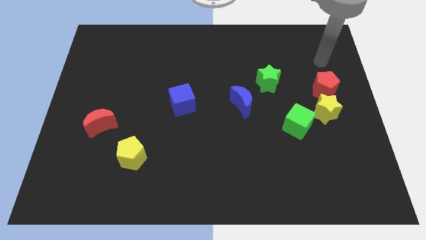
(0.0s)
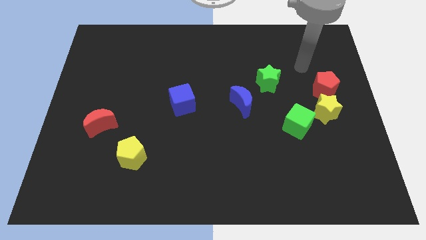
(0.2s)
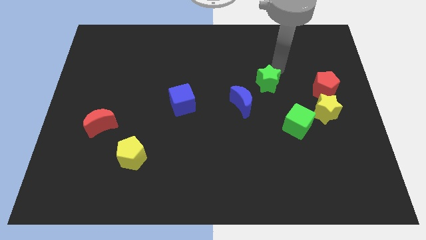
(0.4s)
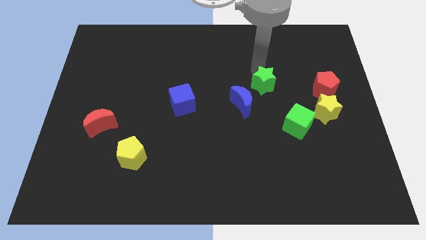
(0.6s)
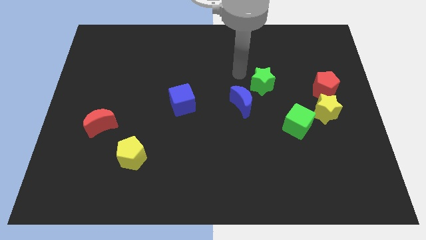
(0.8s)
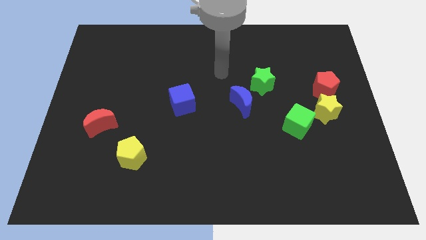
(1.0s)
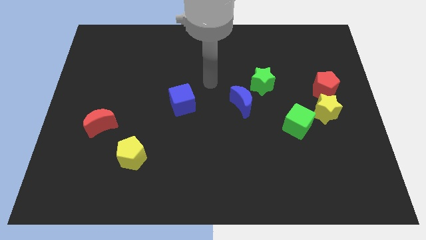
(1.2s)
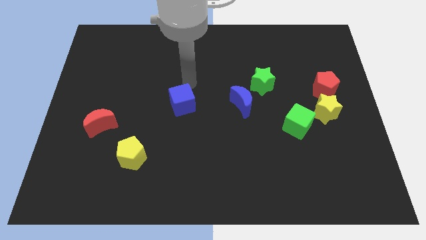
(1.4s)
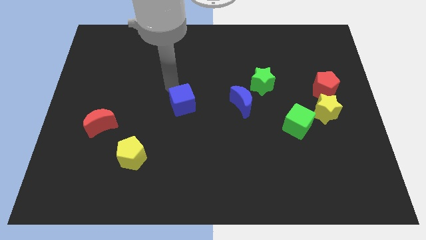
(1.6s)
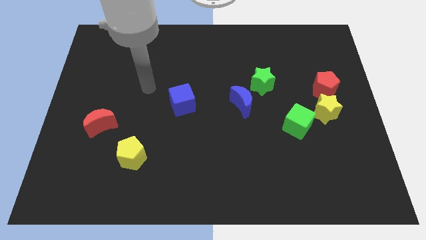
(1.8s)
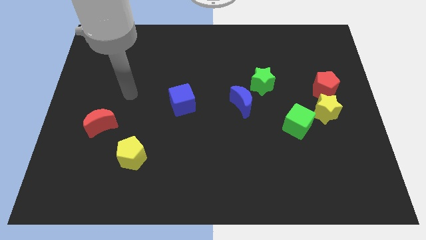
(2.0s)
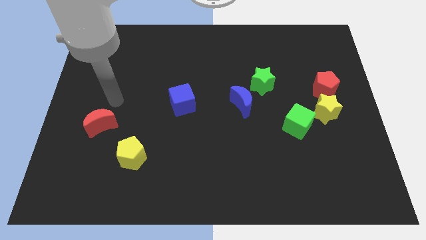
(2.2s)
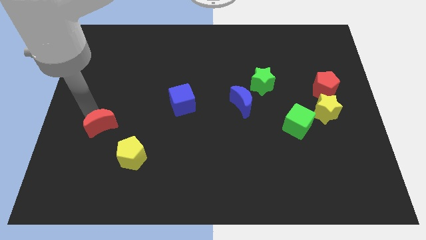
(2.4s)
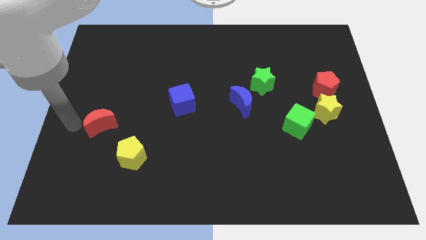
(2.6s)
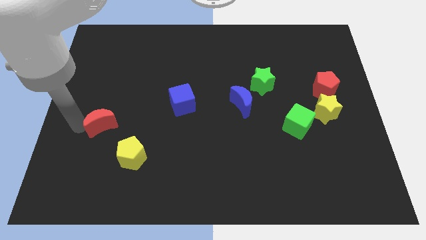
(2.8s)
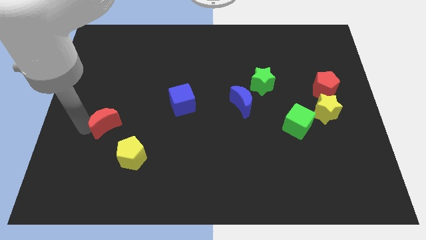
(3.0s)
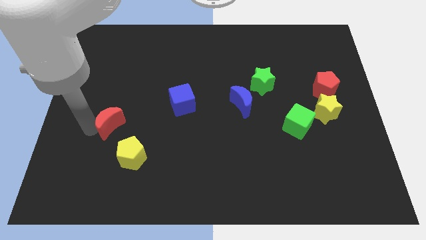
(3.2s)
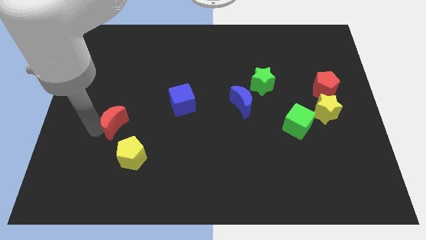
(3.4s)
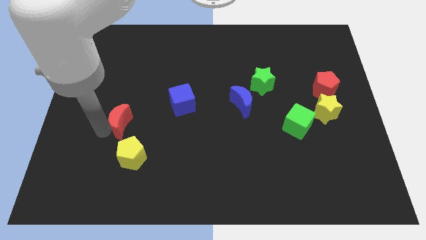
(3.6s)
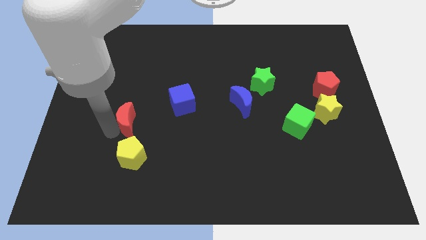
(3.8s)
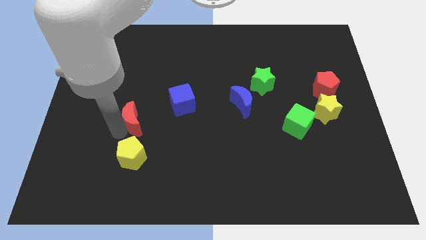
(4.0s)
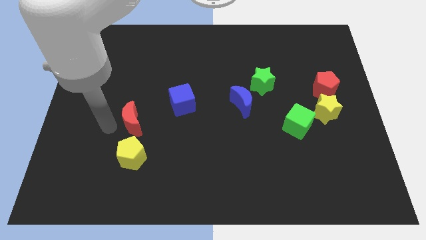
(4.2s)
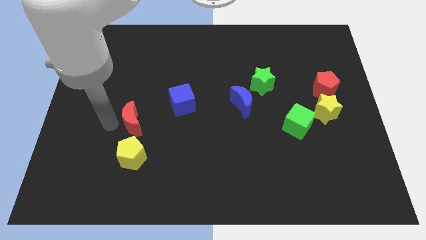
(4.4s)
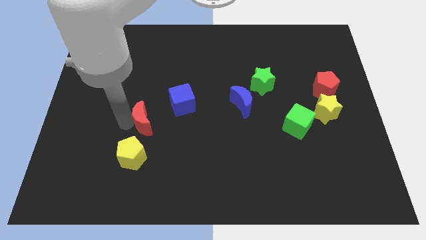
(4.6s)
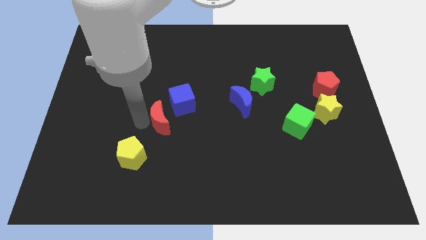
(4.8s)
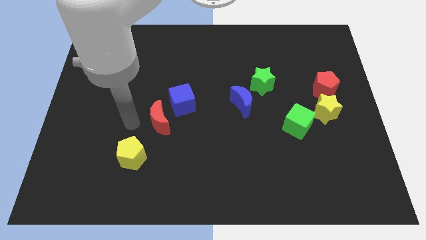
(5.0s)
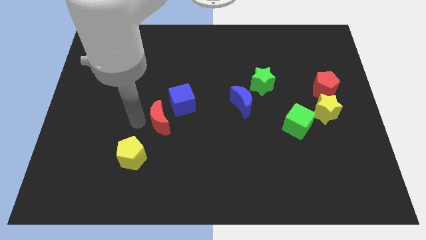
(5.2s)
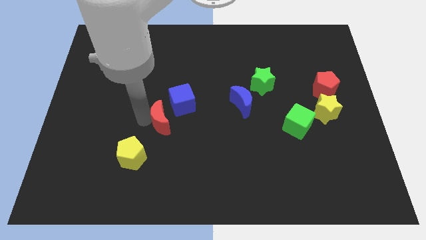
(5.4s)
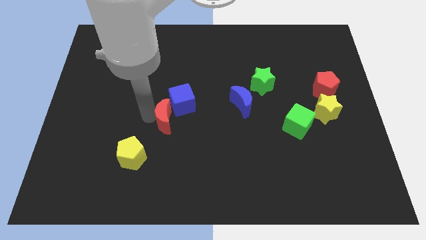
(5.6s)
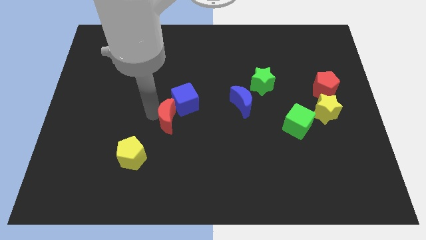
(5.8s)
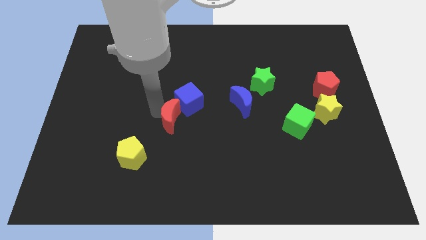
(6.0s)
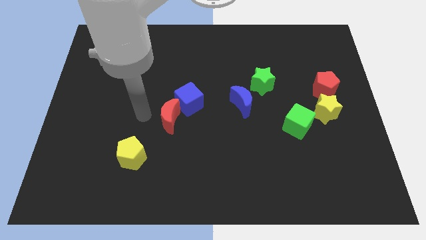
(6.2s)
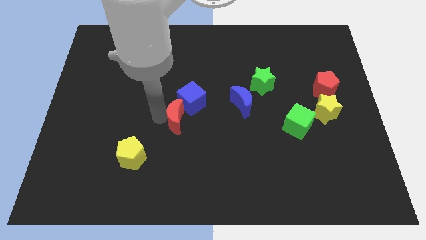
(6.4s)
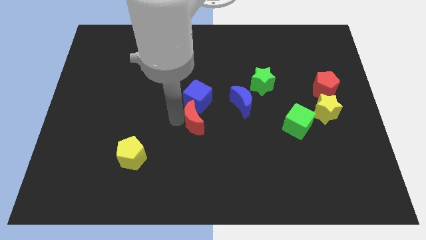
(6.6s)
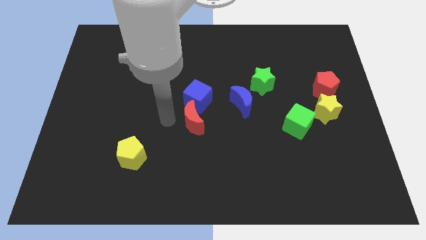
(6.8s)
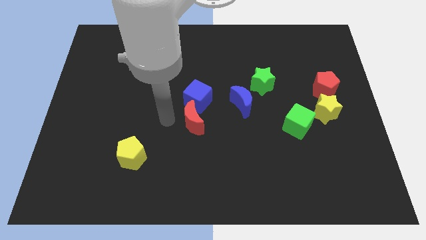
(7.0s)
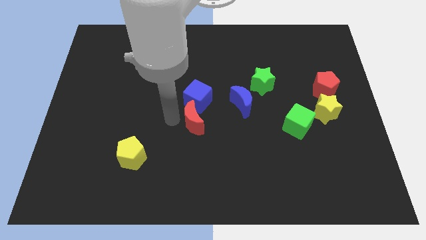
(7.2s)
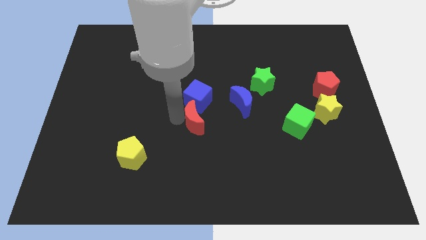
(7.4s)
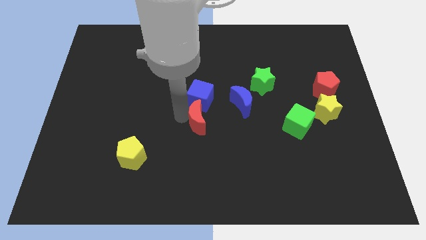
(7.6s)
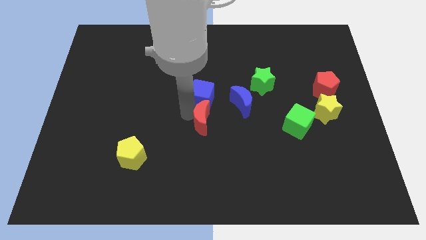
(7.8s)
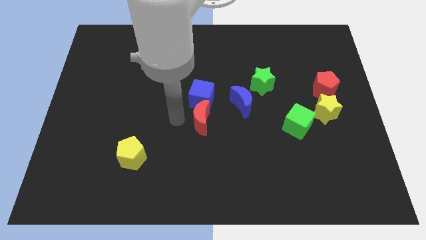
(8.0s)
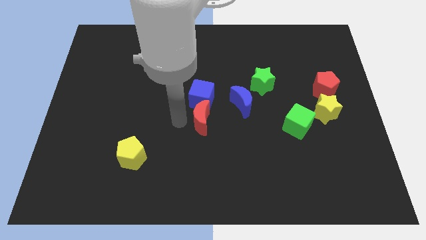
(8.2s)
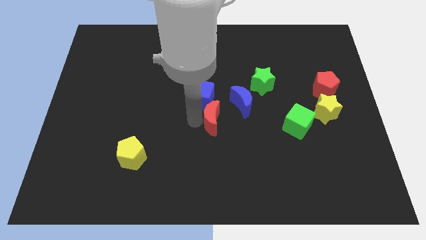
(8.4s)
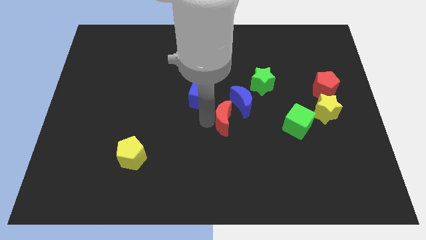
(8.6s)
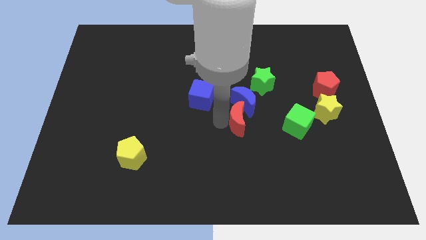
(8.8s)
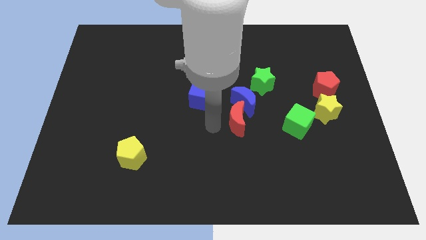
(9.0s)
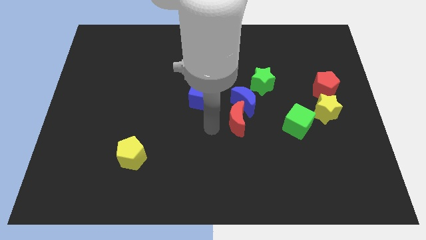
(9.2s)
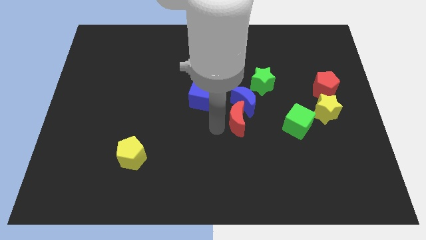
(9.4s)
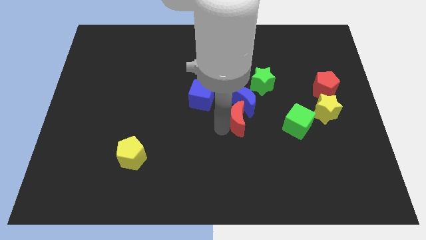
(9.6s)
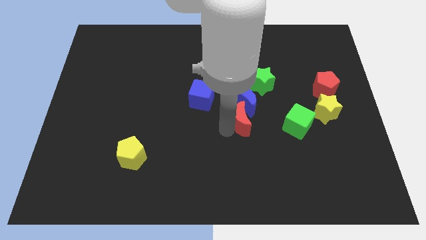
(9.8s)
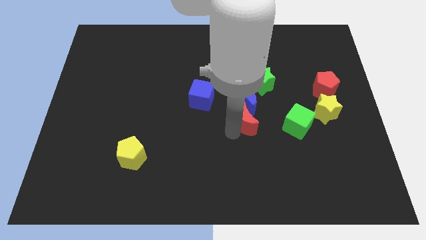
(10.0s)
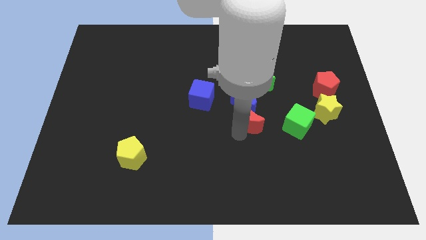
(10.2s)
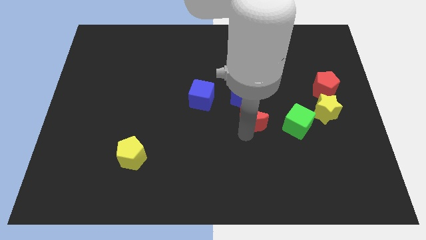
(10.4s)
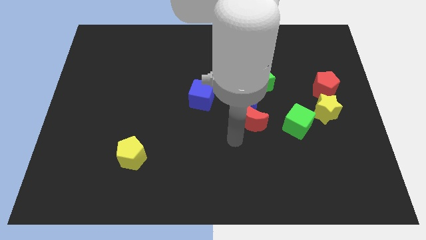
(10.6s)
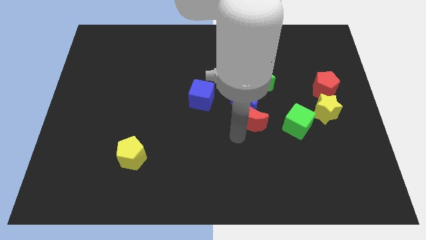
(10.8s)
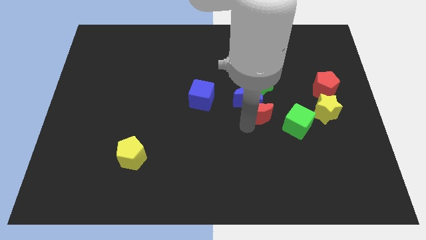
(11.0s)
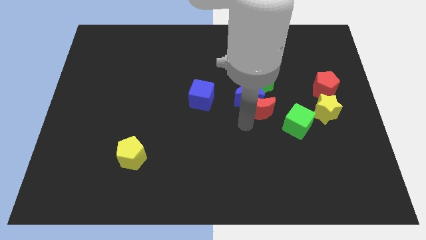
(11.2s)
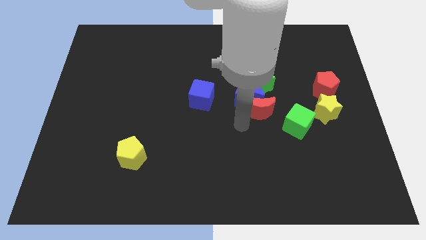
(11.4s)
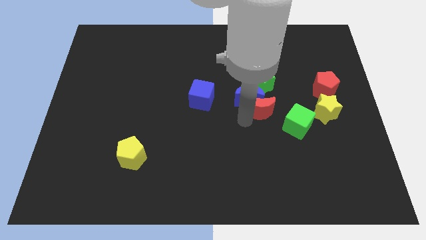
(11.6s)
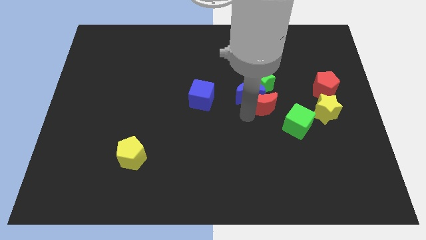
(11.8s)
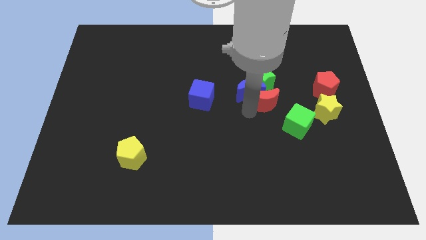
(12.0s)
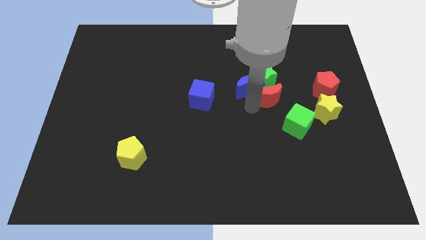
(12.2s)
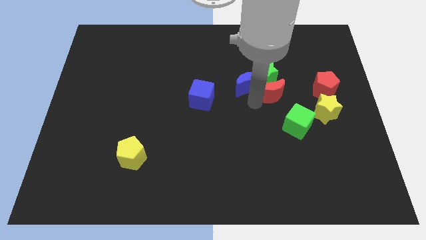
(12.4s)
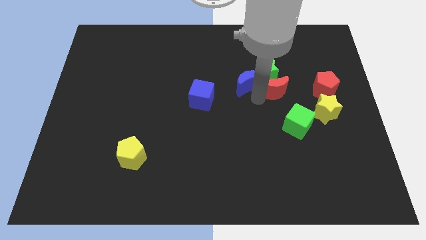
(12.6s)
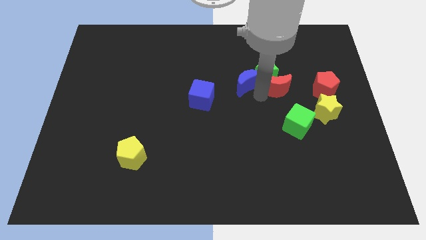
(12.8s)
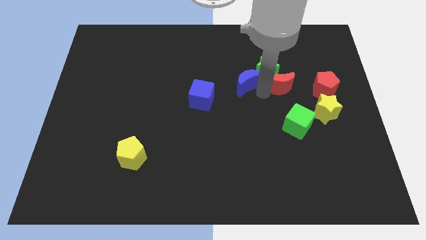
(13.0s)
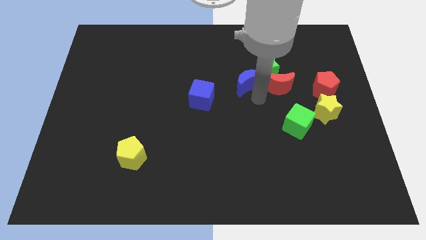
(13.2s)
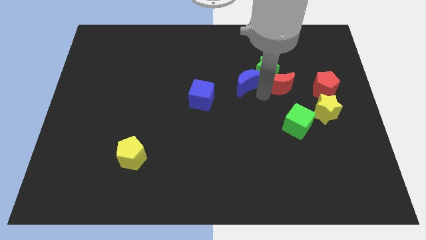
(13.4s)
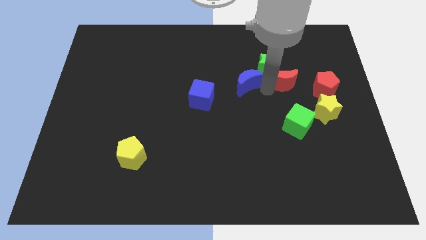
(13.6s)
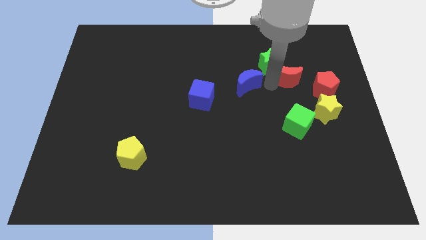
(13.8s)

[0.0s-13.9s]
push the red moon to the right side of the green star
